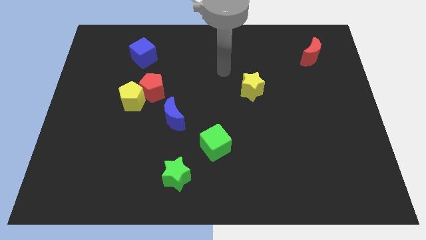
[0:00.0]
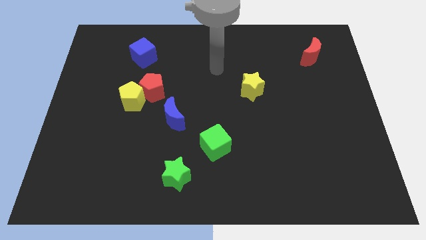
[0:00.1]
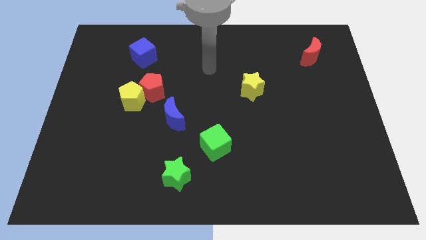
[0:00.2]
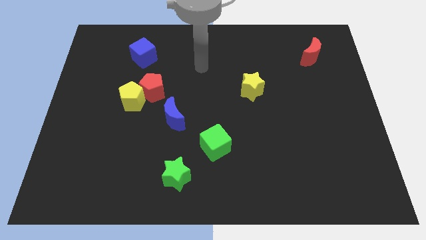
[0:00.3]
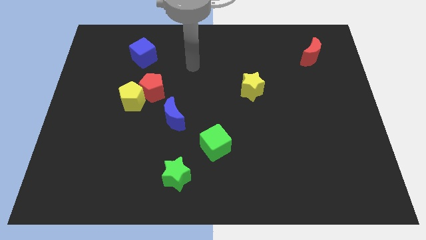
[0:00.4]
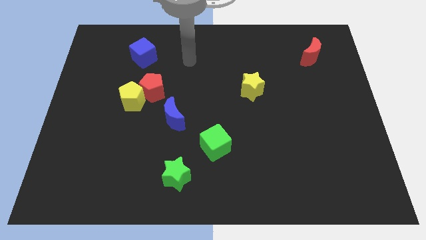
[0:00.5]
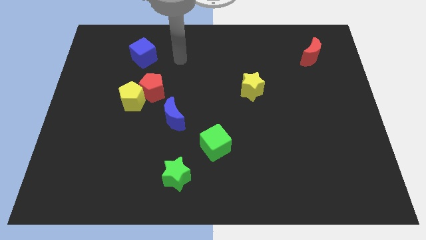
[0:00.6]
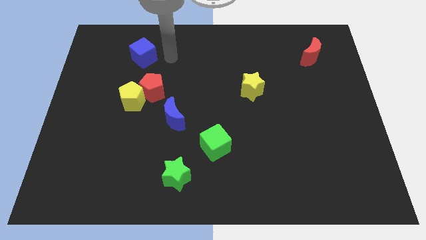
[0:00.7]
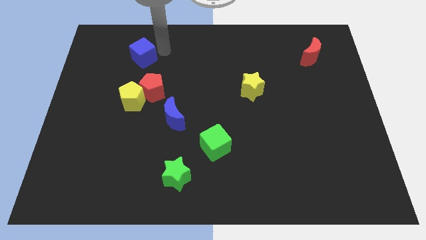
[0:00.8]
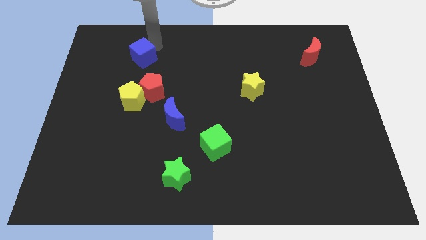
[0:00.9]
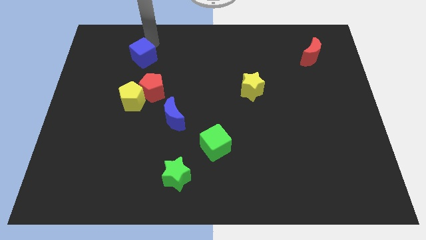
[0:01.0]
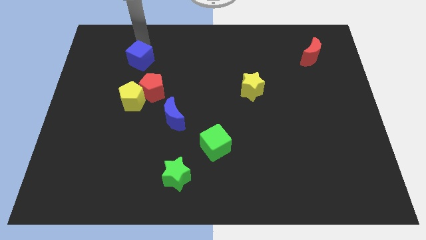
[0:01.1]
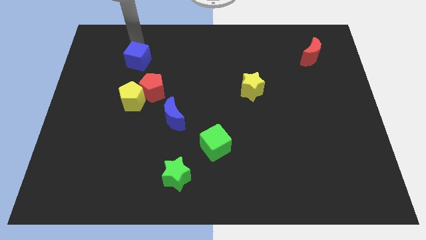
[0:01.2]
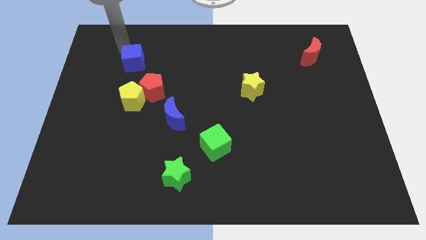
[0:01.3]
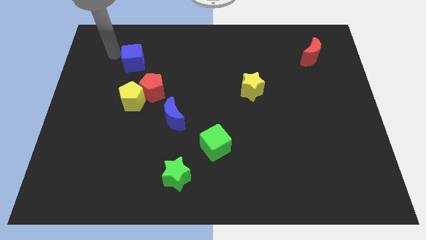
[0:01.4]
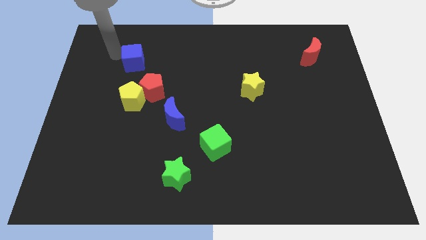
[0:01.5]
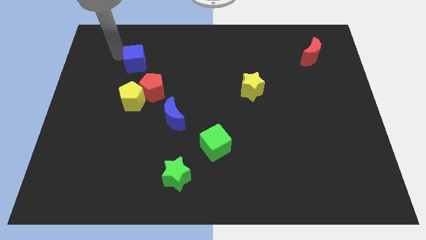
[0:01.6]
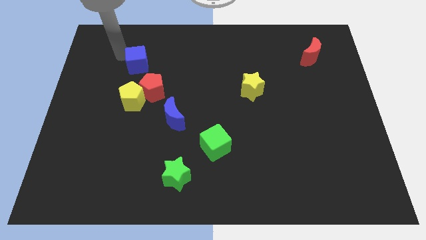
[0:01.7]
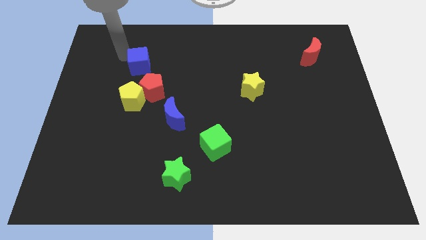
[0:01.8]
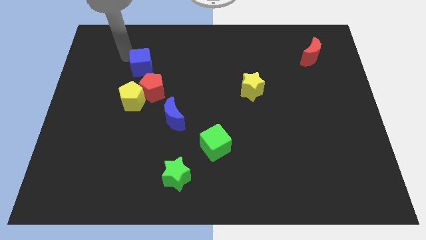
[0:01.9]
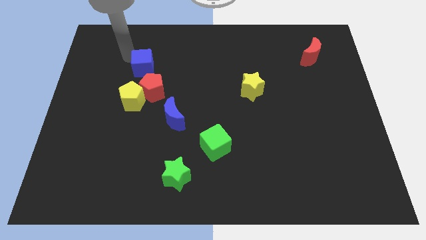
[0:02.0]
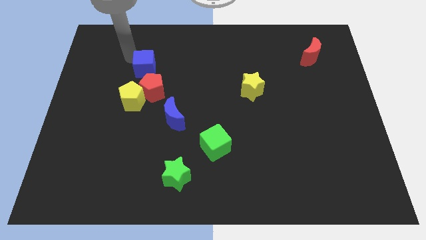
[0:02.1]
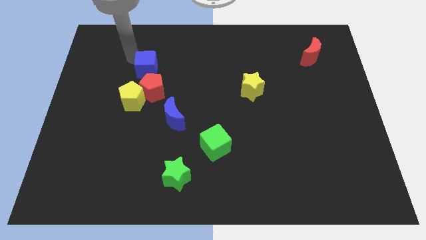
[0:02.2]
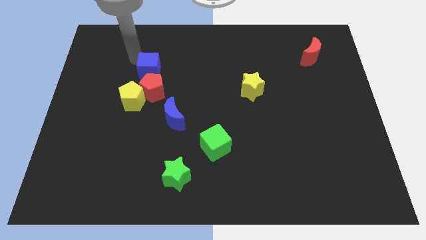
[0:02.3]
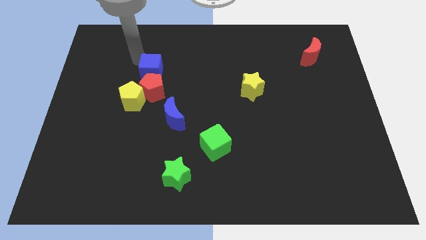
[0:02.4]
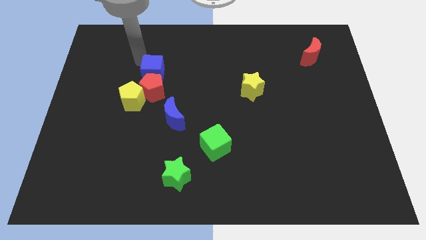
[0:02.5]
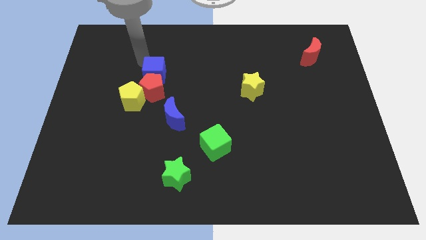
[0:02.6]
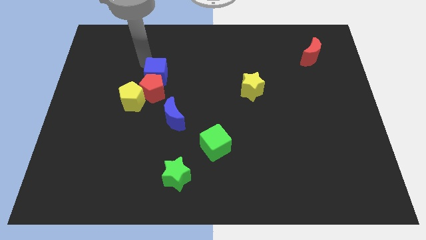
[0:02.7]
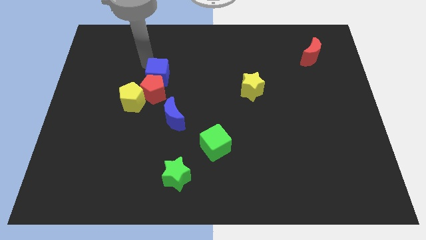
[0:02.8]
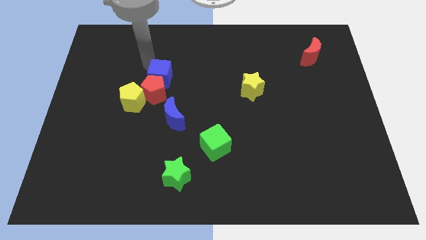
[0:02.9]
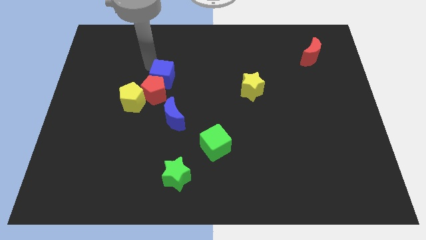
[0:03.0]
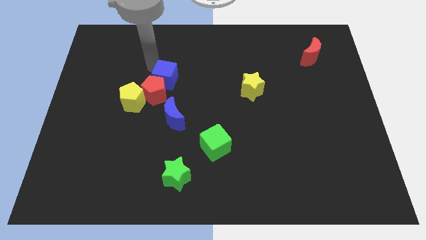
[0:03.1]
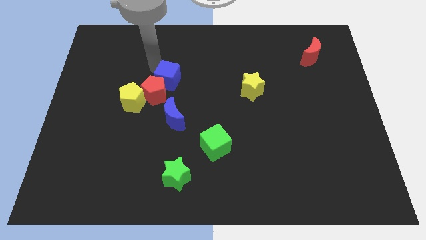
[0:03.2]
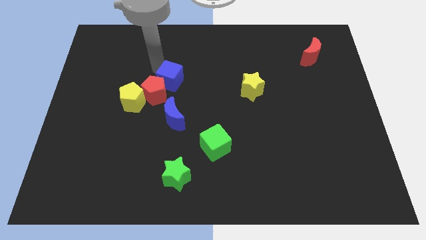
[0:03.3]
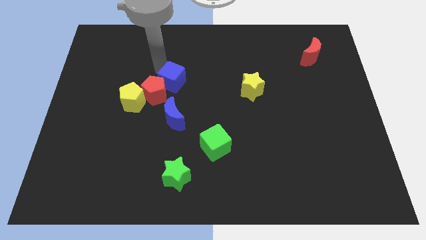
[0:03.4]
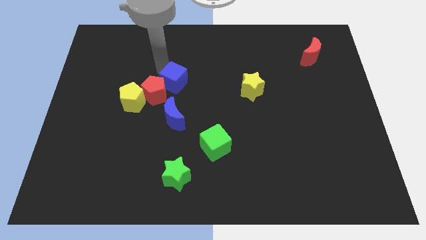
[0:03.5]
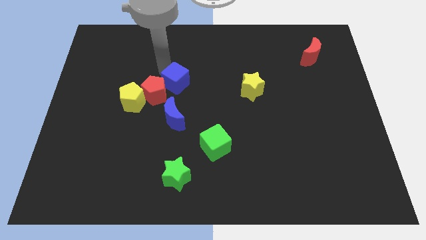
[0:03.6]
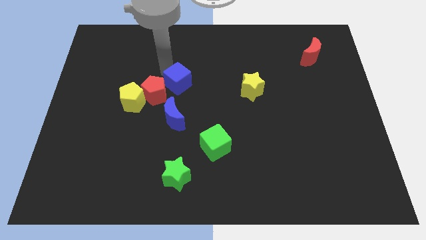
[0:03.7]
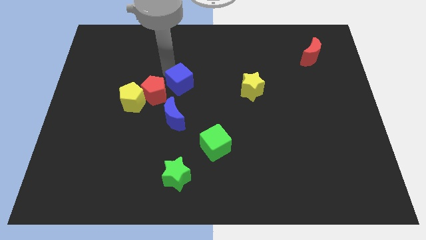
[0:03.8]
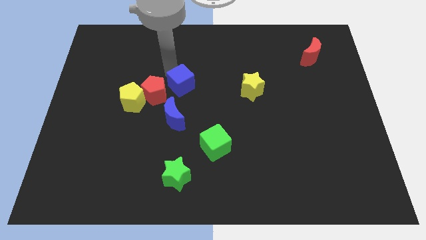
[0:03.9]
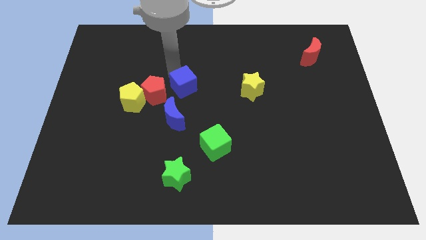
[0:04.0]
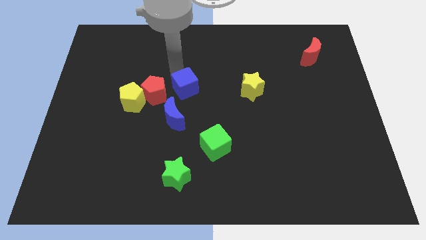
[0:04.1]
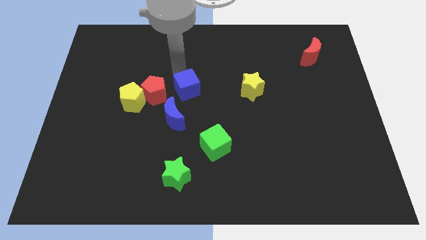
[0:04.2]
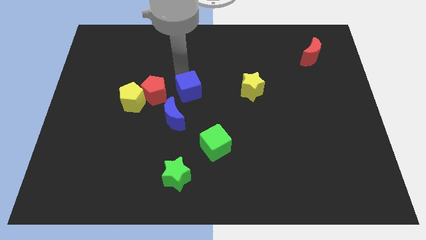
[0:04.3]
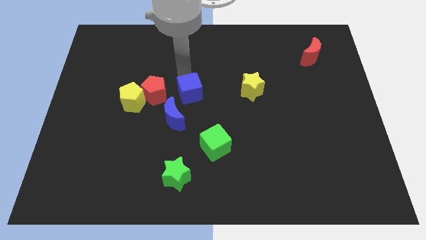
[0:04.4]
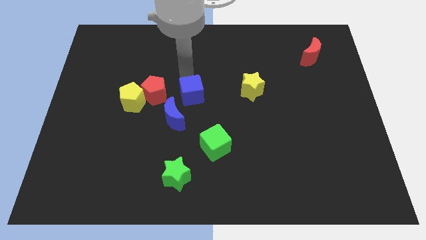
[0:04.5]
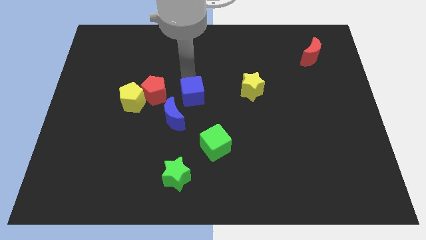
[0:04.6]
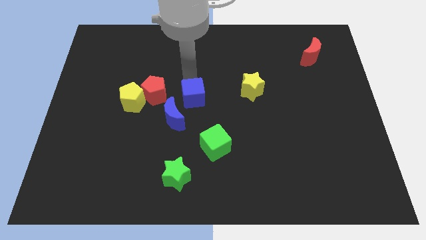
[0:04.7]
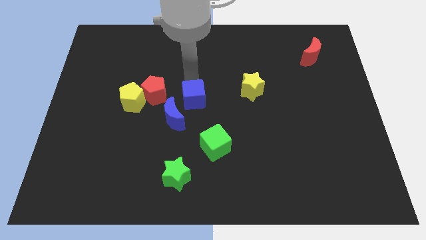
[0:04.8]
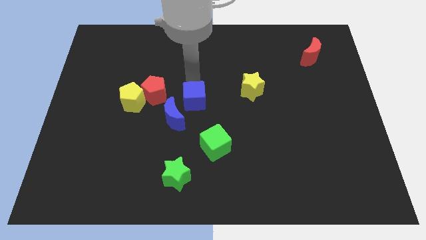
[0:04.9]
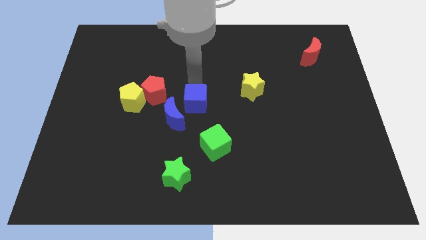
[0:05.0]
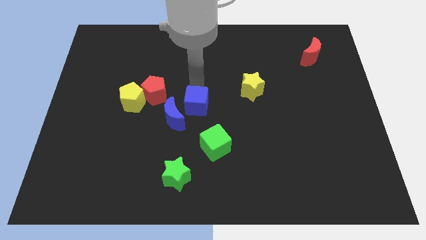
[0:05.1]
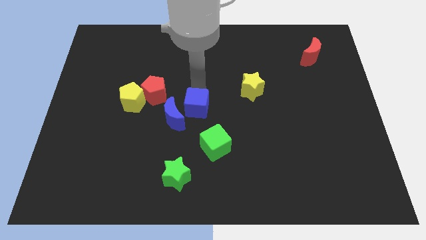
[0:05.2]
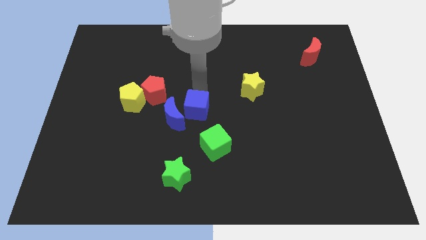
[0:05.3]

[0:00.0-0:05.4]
slide the blue cube to the top left of the green cube

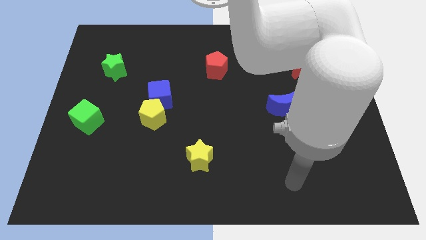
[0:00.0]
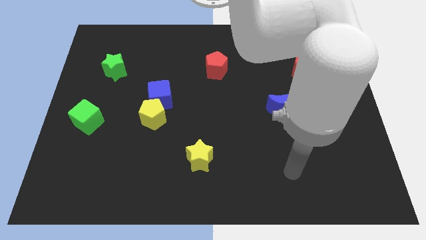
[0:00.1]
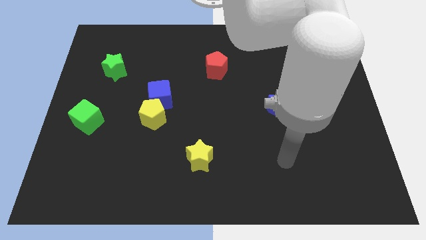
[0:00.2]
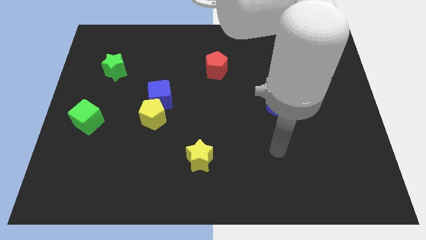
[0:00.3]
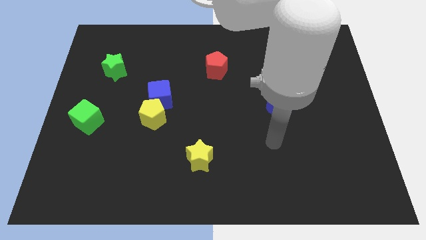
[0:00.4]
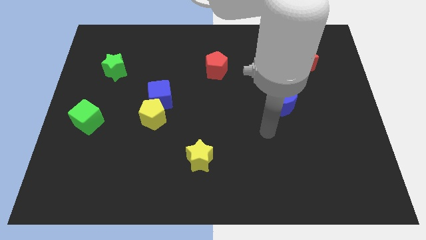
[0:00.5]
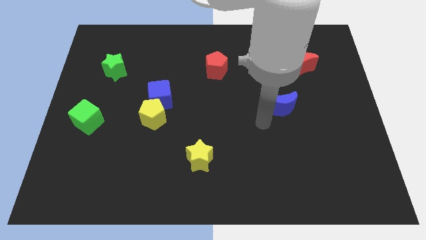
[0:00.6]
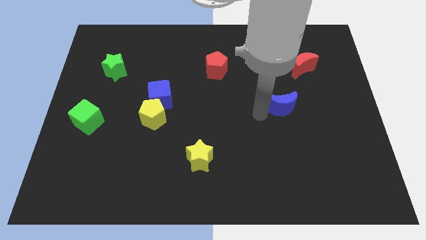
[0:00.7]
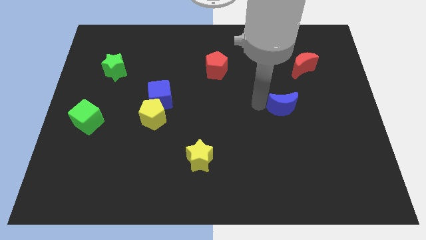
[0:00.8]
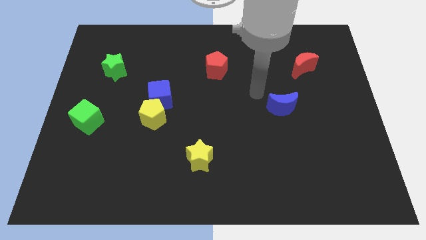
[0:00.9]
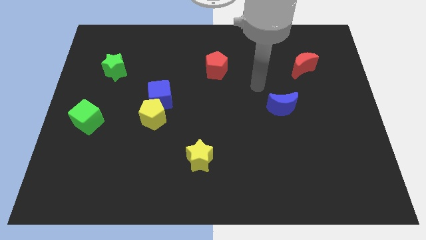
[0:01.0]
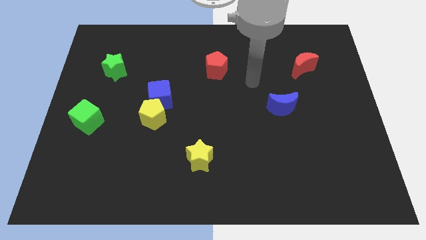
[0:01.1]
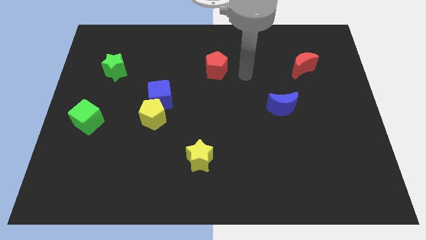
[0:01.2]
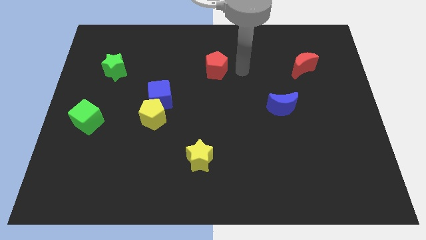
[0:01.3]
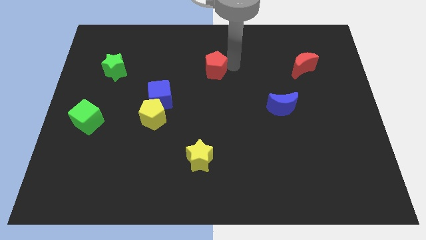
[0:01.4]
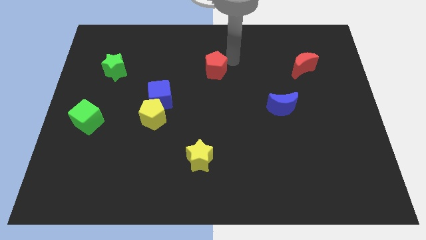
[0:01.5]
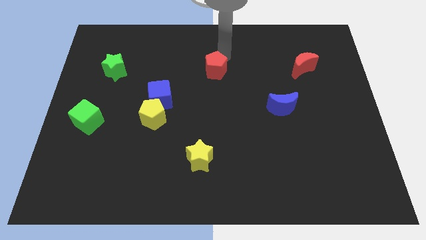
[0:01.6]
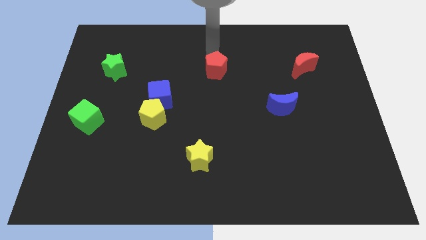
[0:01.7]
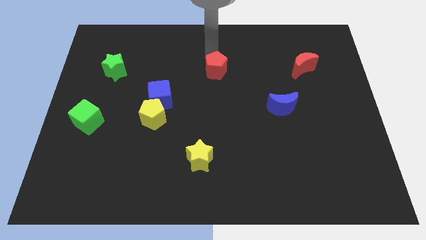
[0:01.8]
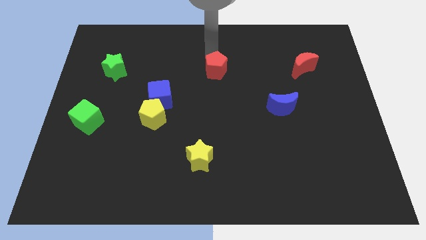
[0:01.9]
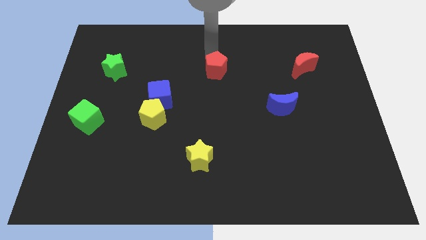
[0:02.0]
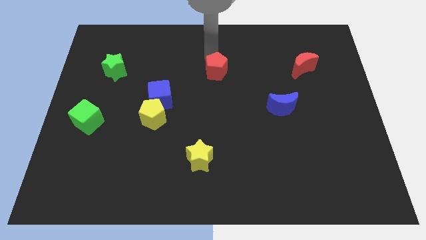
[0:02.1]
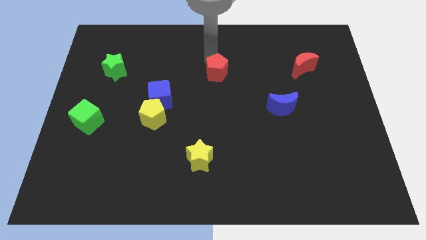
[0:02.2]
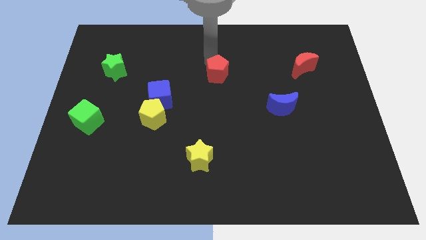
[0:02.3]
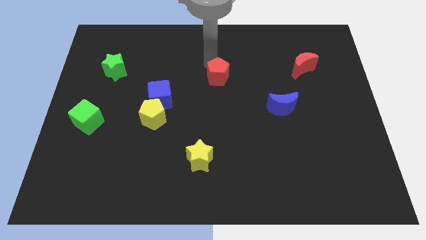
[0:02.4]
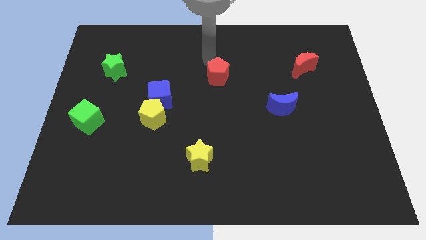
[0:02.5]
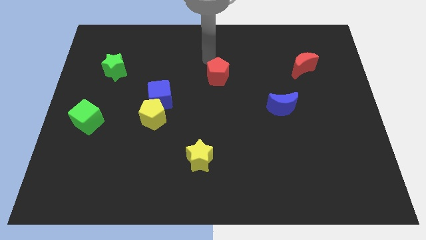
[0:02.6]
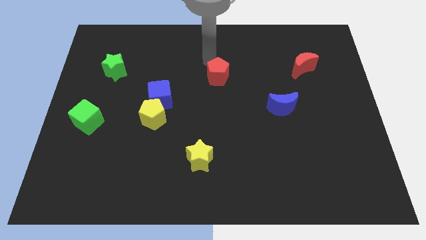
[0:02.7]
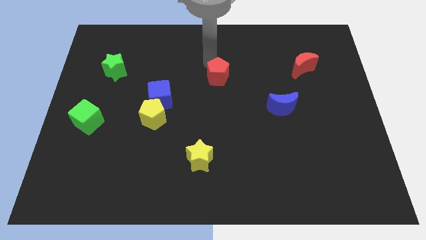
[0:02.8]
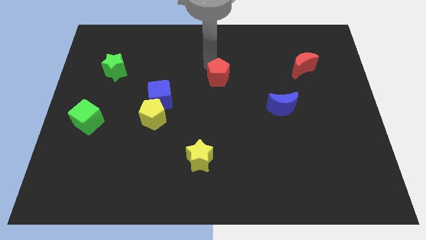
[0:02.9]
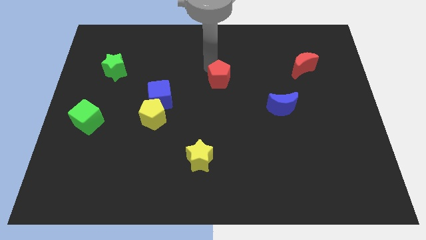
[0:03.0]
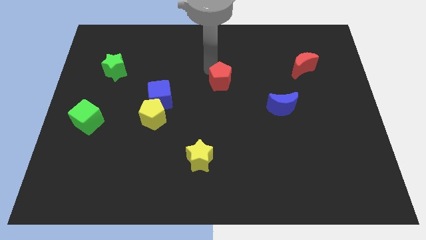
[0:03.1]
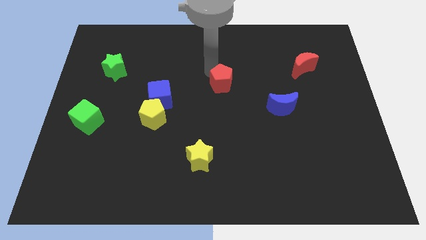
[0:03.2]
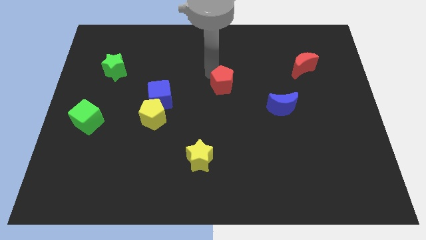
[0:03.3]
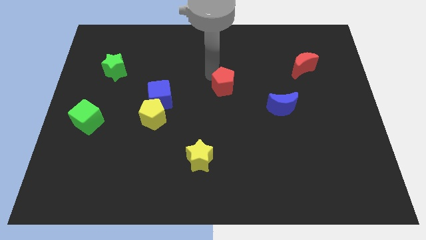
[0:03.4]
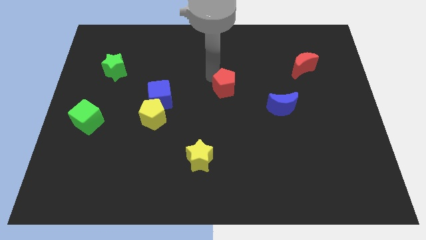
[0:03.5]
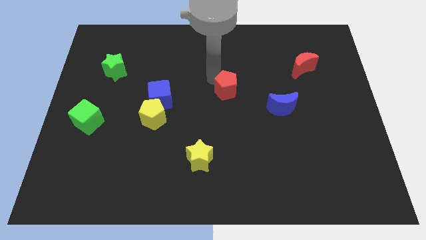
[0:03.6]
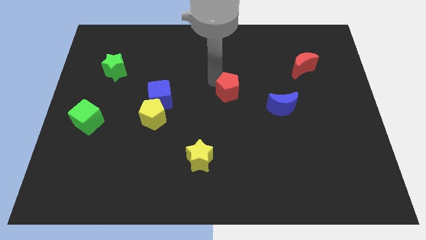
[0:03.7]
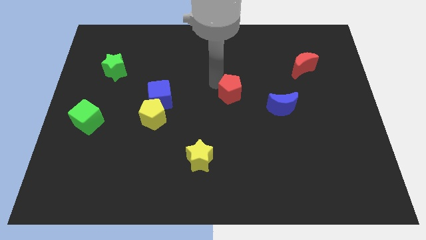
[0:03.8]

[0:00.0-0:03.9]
slide the red pentagon to the left side of the blue moon
